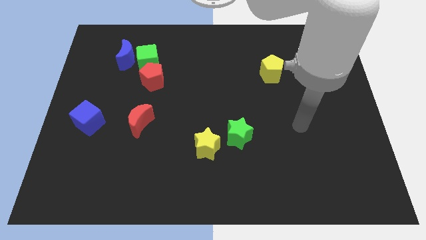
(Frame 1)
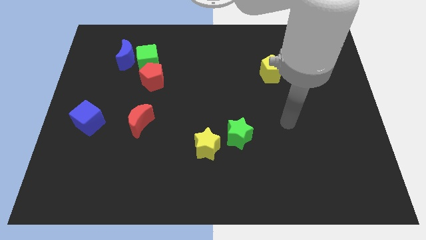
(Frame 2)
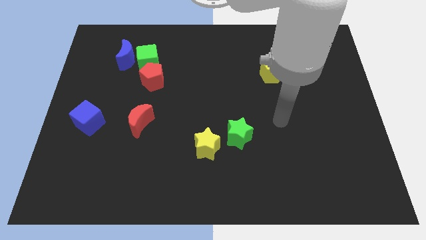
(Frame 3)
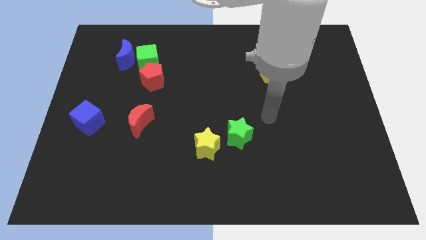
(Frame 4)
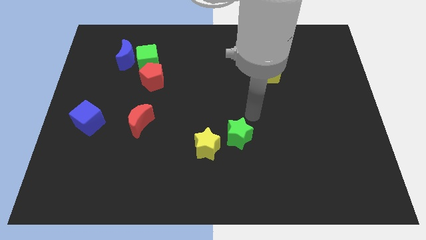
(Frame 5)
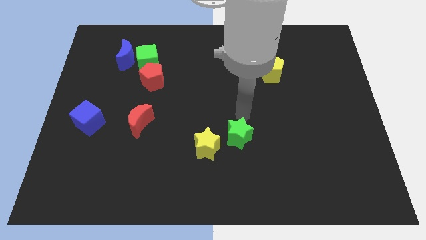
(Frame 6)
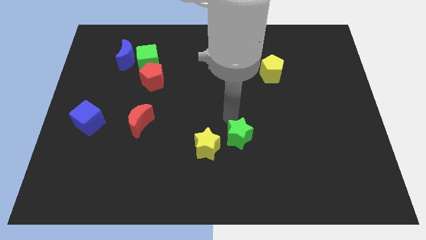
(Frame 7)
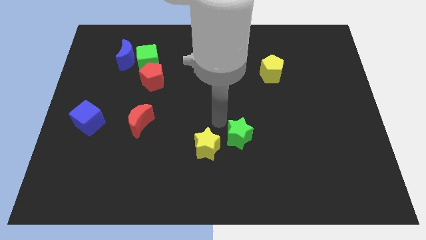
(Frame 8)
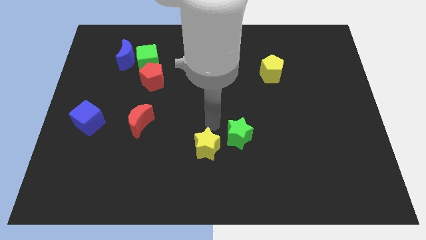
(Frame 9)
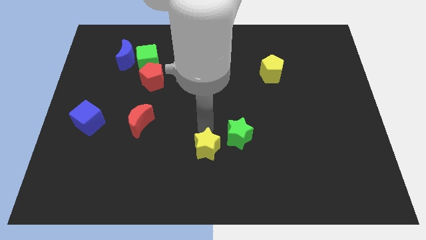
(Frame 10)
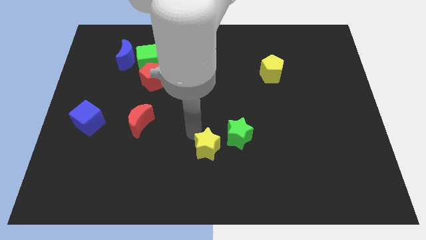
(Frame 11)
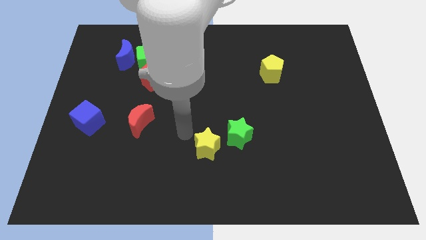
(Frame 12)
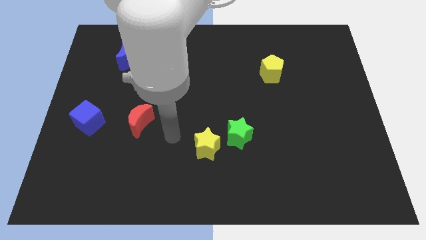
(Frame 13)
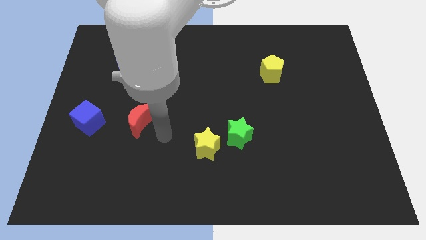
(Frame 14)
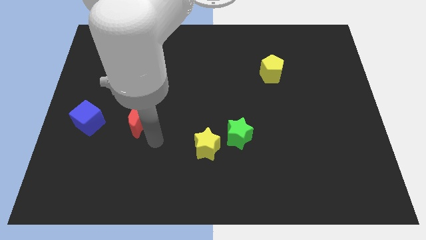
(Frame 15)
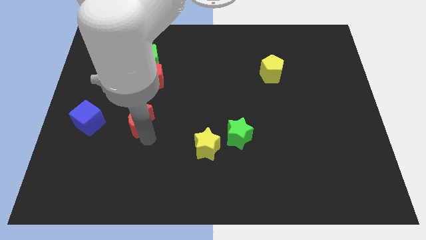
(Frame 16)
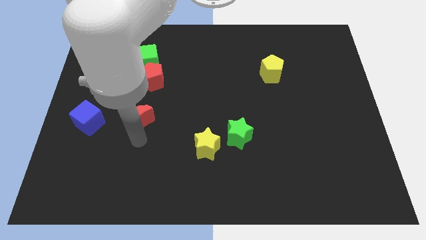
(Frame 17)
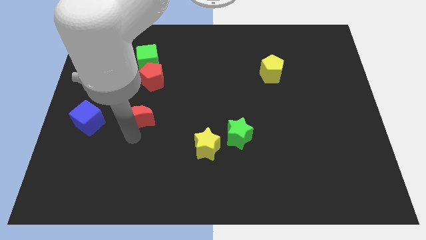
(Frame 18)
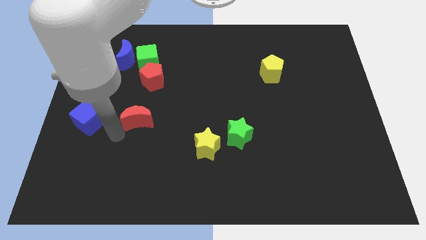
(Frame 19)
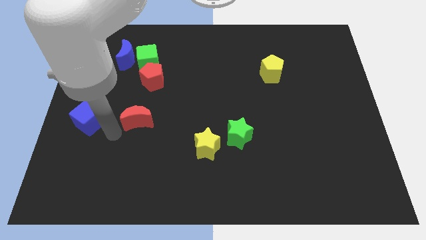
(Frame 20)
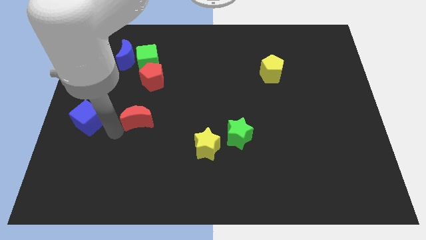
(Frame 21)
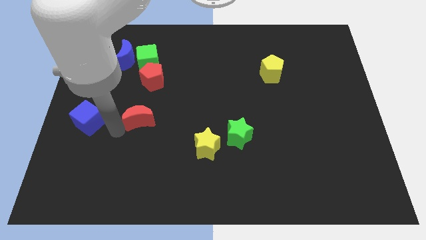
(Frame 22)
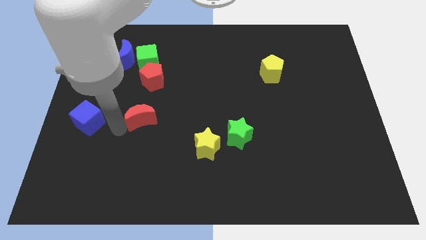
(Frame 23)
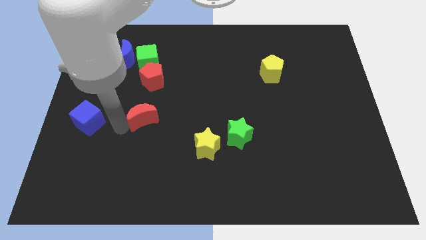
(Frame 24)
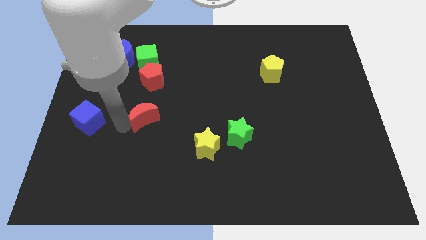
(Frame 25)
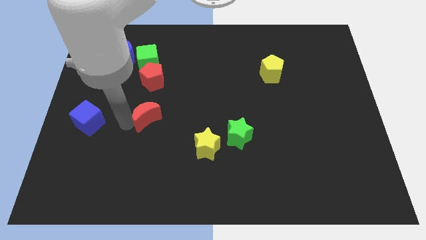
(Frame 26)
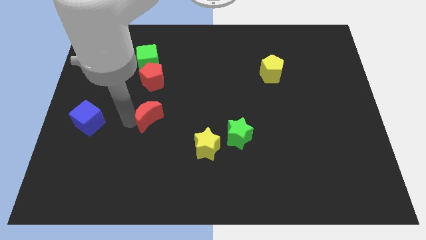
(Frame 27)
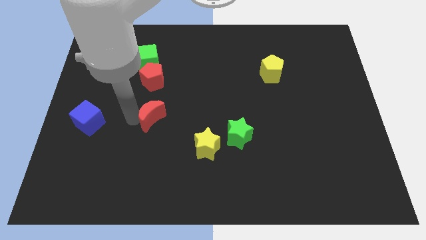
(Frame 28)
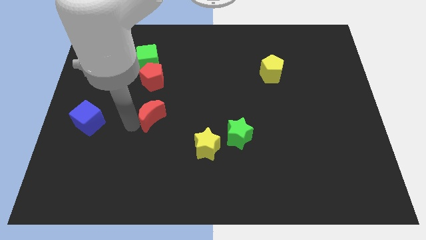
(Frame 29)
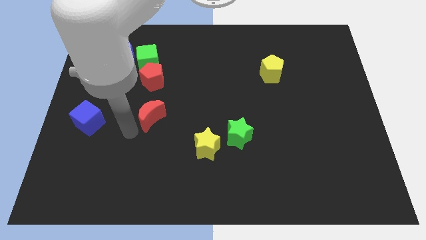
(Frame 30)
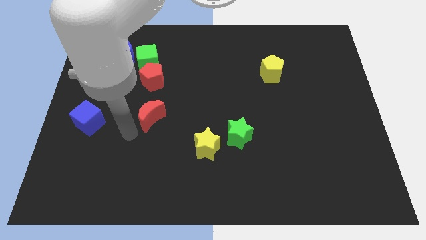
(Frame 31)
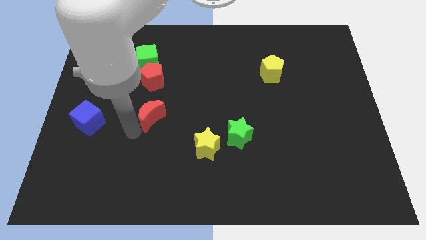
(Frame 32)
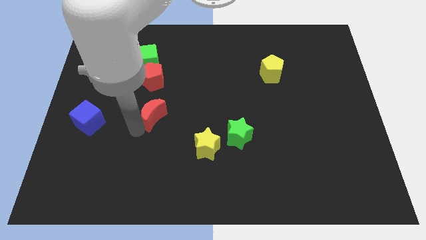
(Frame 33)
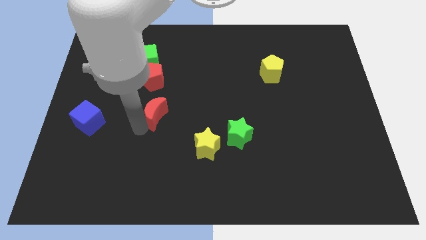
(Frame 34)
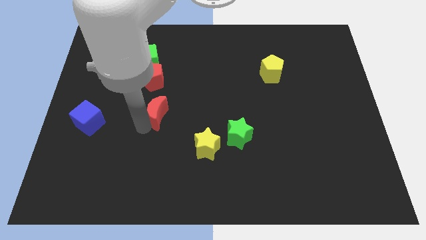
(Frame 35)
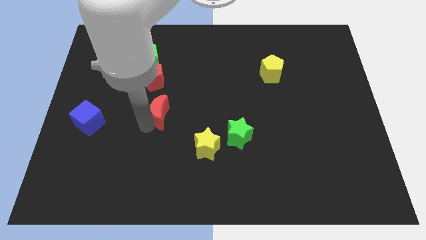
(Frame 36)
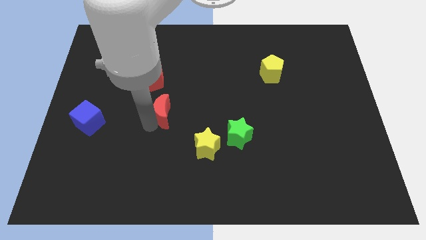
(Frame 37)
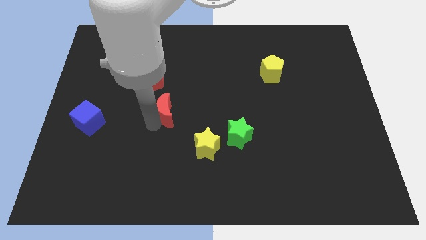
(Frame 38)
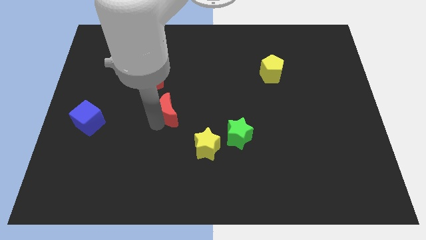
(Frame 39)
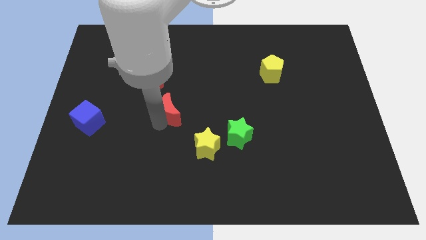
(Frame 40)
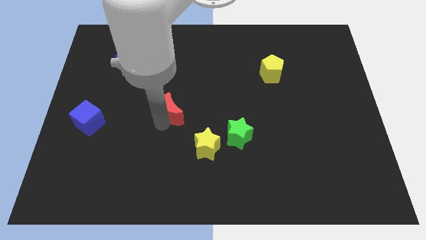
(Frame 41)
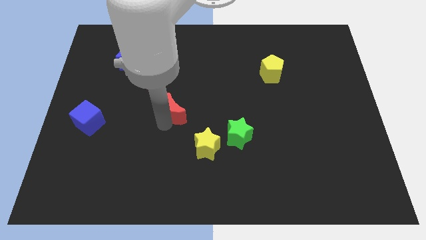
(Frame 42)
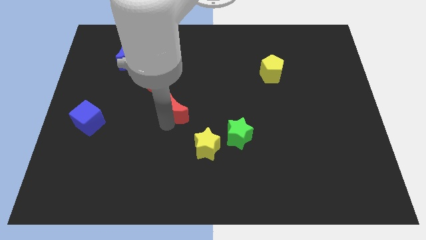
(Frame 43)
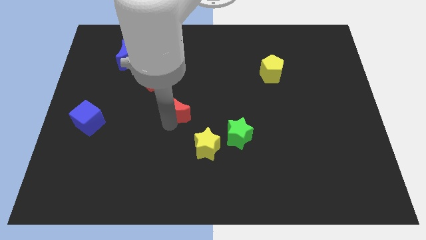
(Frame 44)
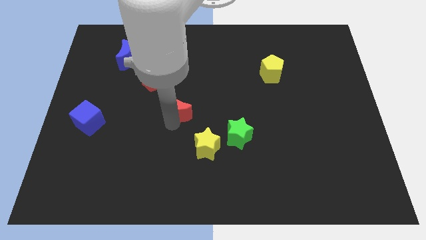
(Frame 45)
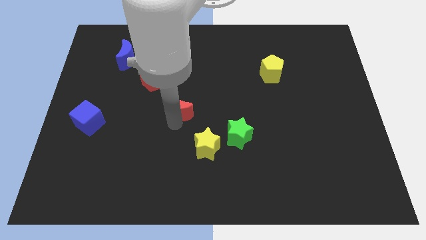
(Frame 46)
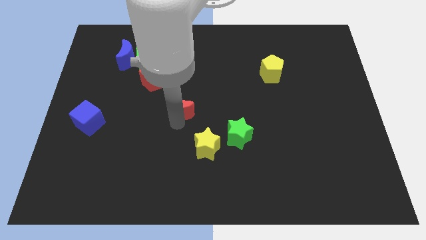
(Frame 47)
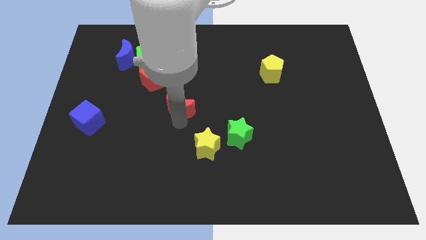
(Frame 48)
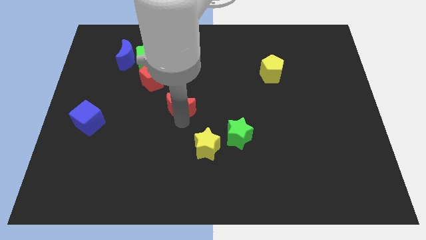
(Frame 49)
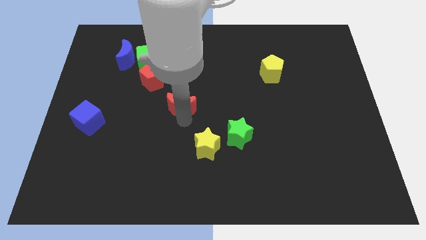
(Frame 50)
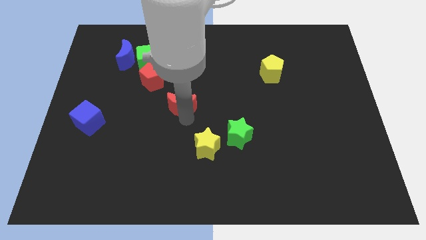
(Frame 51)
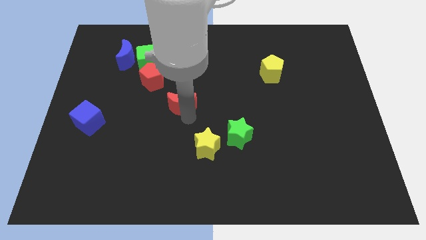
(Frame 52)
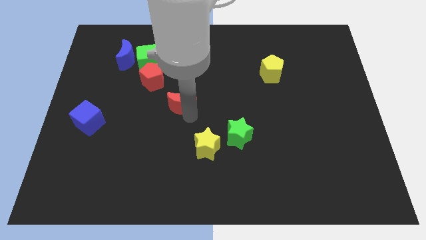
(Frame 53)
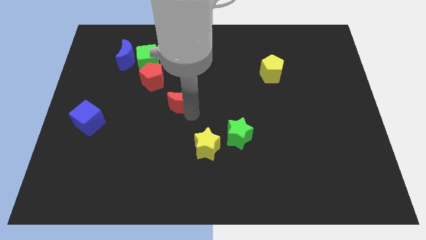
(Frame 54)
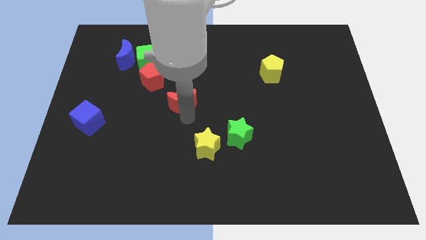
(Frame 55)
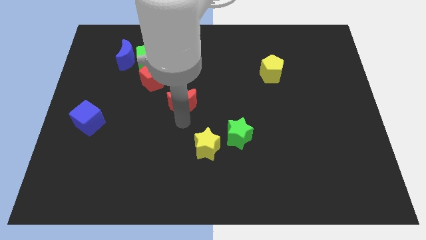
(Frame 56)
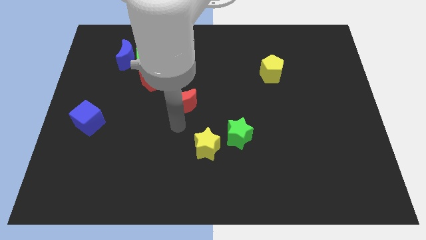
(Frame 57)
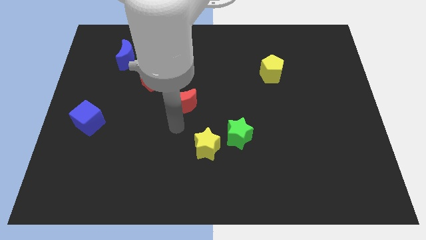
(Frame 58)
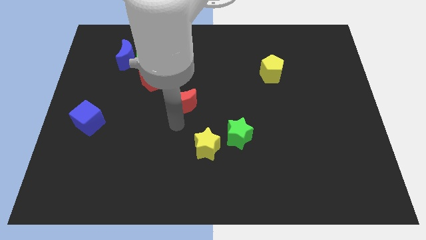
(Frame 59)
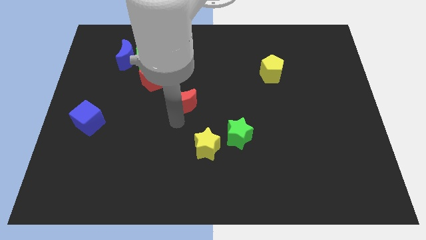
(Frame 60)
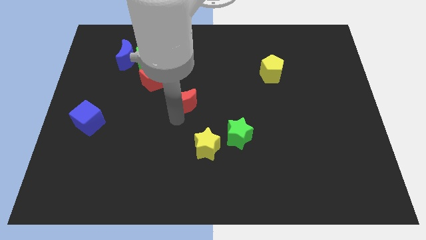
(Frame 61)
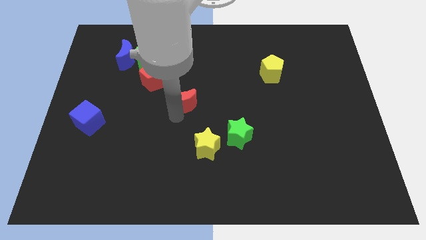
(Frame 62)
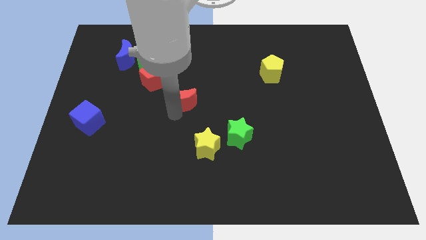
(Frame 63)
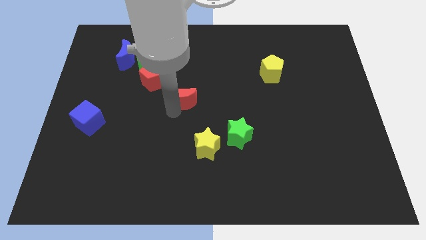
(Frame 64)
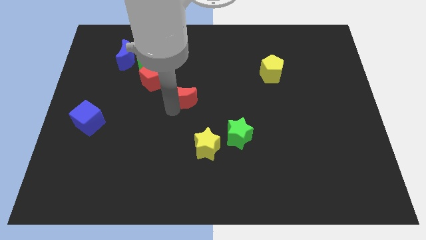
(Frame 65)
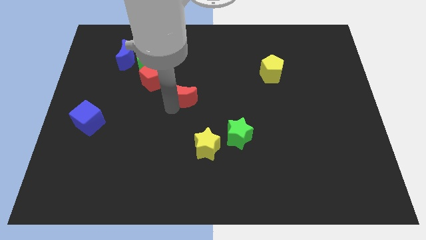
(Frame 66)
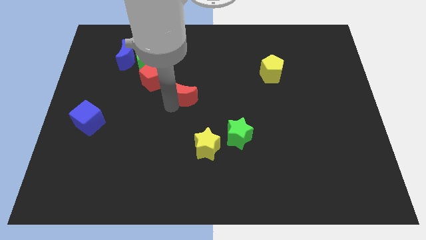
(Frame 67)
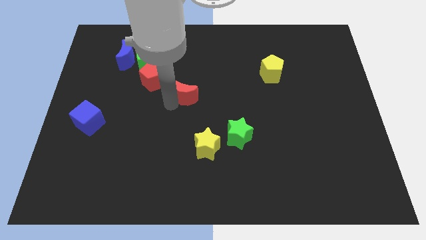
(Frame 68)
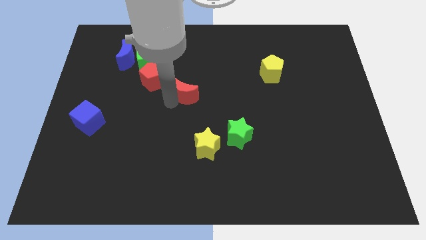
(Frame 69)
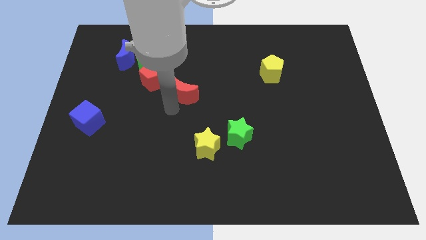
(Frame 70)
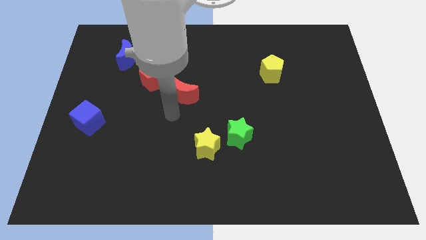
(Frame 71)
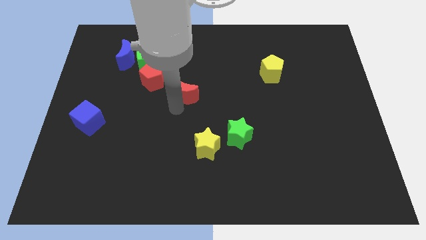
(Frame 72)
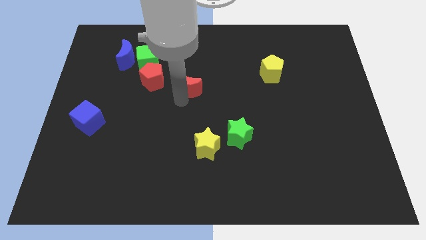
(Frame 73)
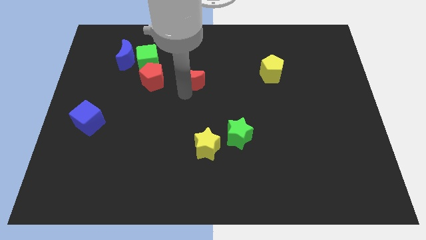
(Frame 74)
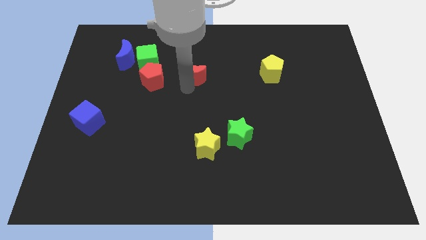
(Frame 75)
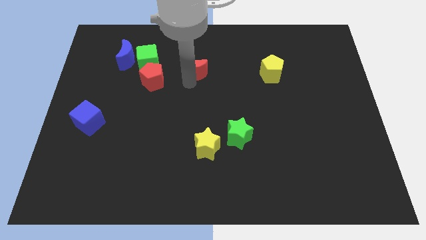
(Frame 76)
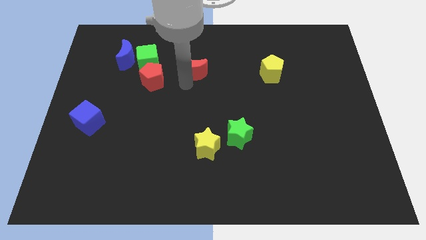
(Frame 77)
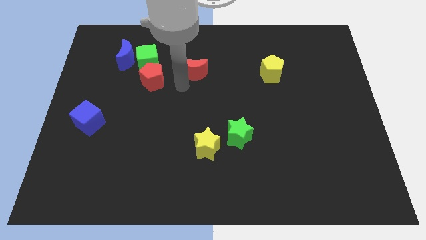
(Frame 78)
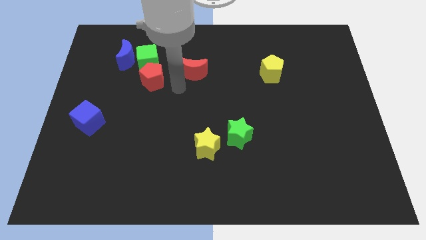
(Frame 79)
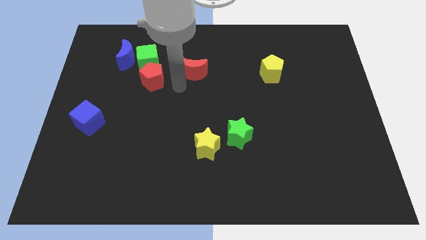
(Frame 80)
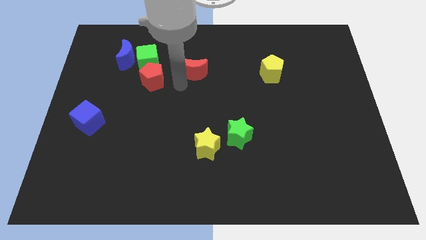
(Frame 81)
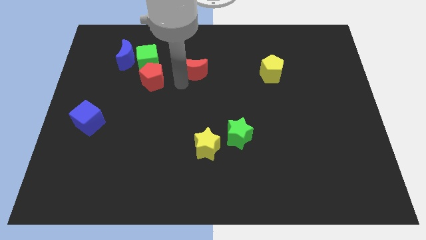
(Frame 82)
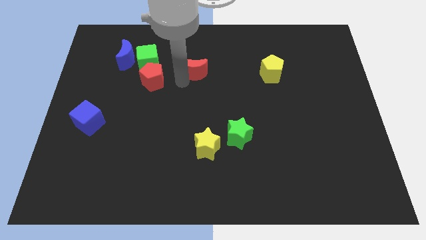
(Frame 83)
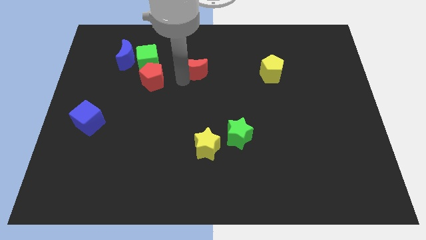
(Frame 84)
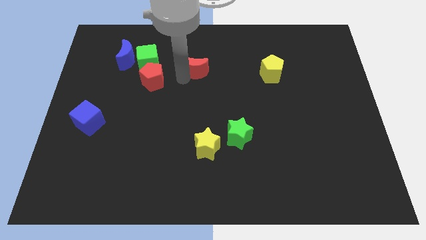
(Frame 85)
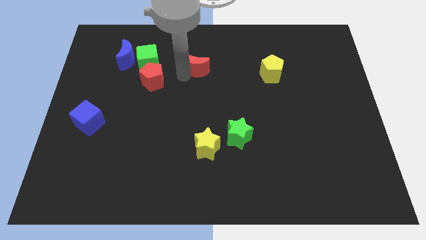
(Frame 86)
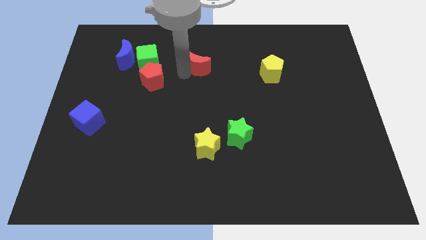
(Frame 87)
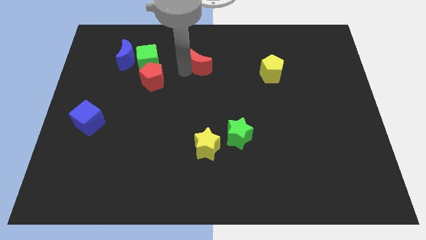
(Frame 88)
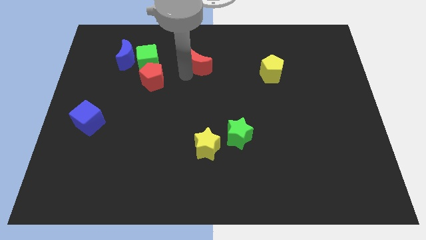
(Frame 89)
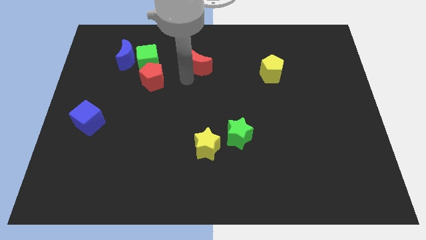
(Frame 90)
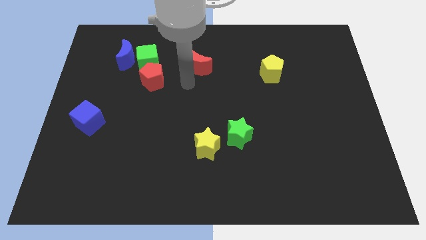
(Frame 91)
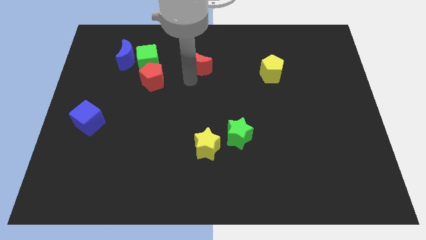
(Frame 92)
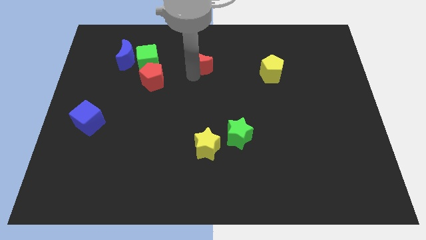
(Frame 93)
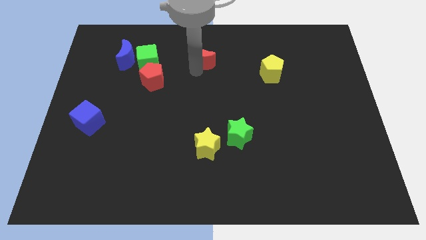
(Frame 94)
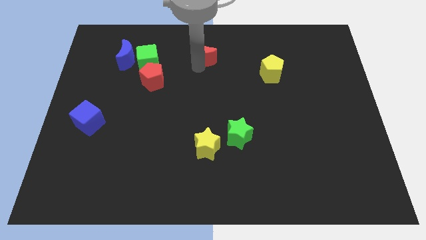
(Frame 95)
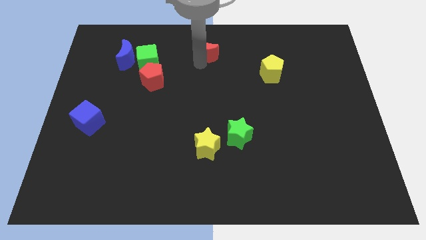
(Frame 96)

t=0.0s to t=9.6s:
put the red moon to the top side
